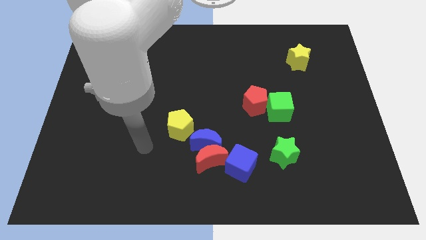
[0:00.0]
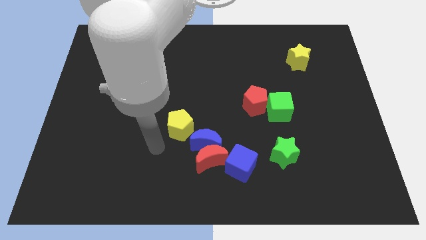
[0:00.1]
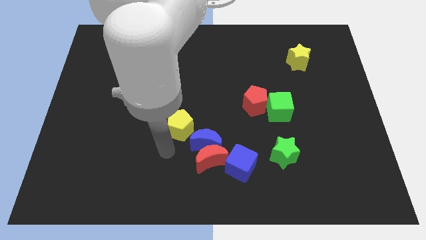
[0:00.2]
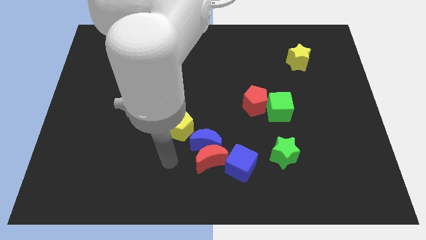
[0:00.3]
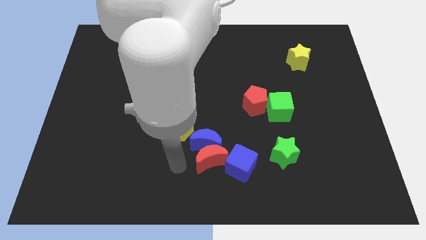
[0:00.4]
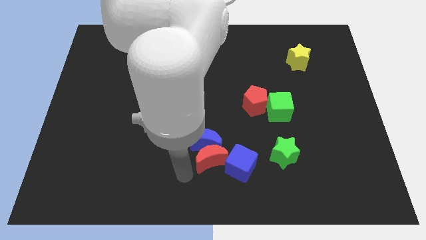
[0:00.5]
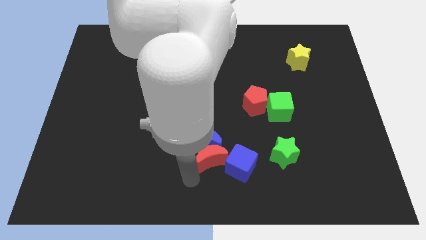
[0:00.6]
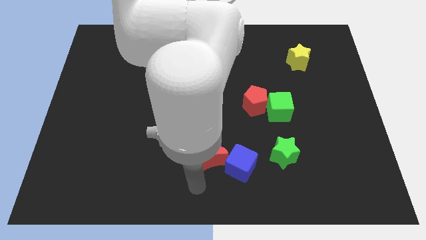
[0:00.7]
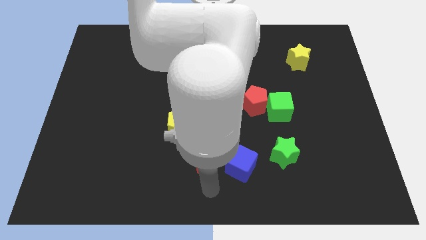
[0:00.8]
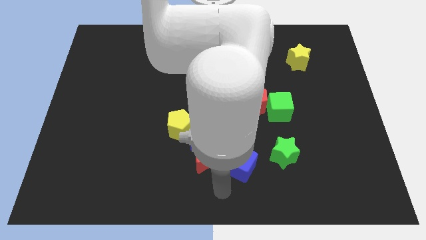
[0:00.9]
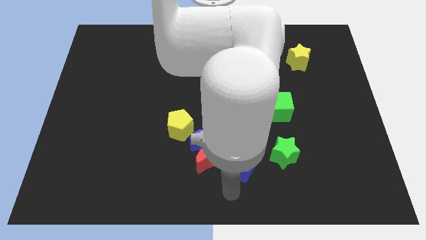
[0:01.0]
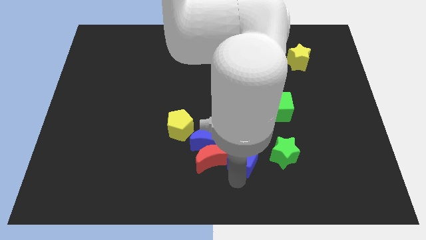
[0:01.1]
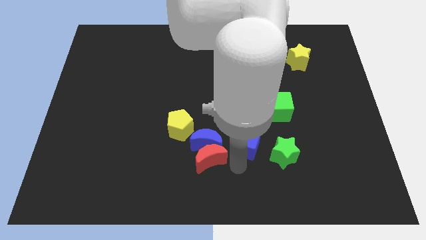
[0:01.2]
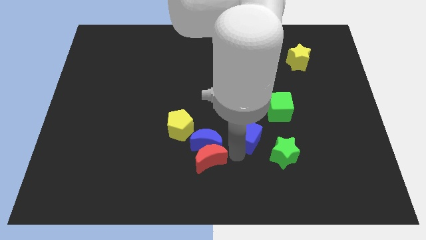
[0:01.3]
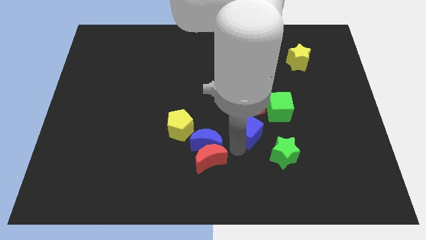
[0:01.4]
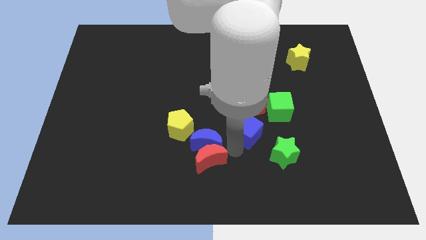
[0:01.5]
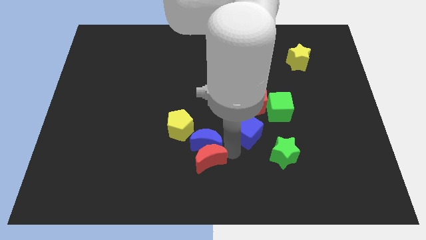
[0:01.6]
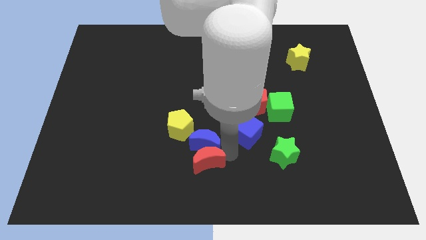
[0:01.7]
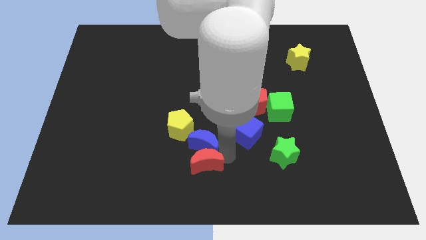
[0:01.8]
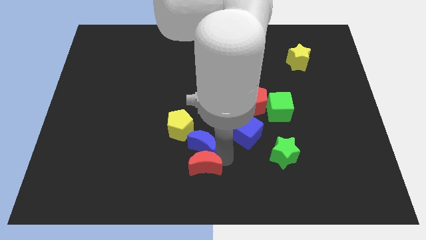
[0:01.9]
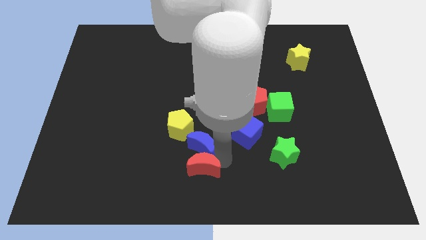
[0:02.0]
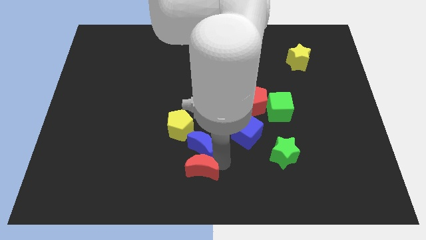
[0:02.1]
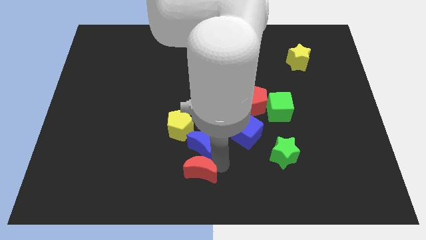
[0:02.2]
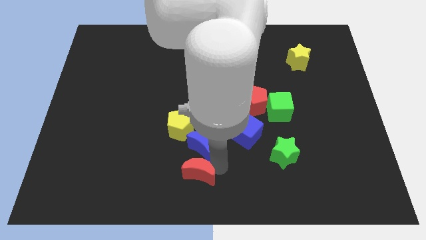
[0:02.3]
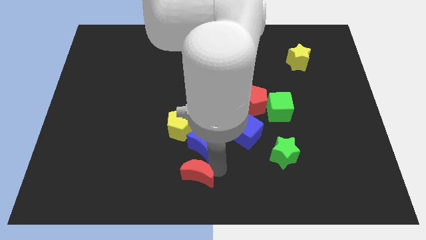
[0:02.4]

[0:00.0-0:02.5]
separate the red moon from the blue moon and blue cube

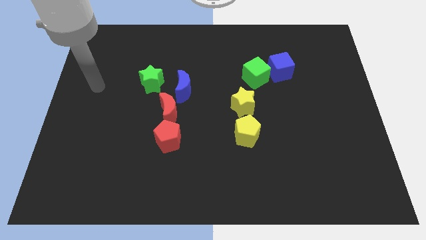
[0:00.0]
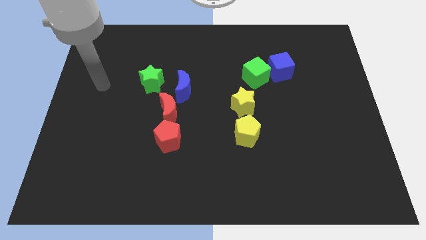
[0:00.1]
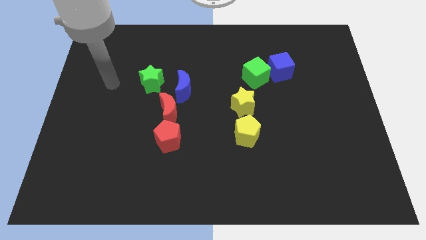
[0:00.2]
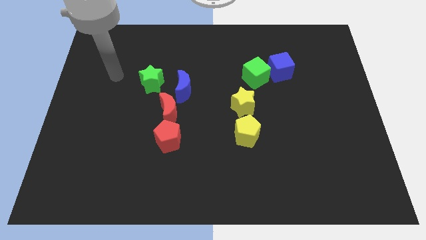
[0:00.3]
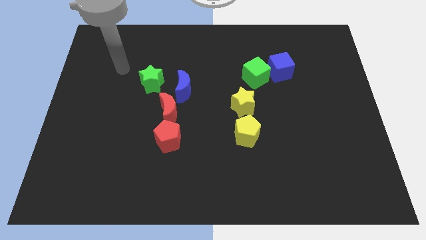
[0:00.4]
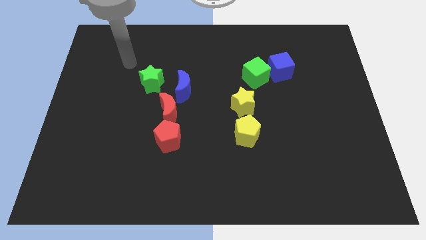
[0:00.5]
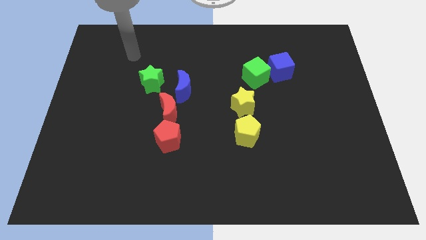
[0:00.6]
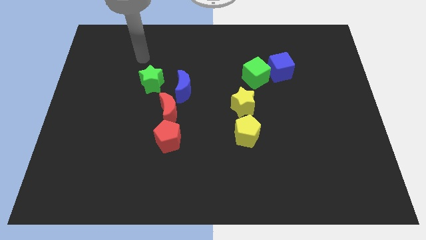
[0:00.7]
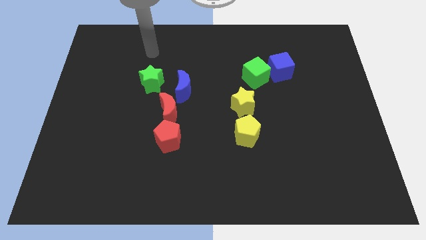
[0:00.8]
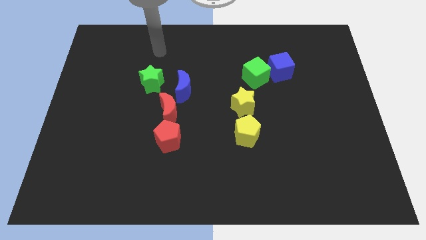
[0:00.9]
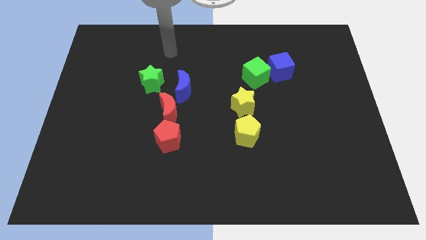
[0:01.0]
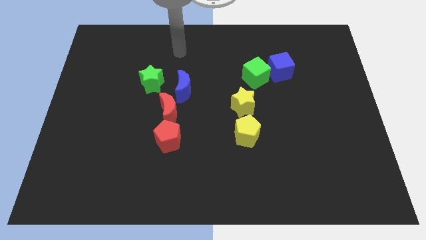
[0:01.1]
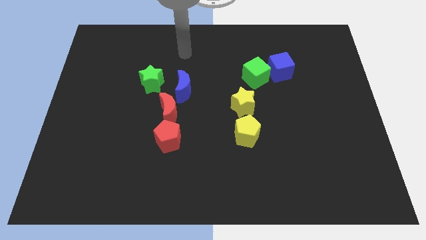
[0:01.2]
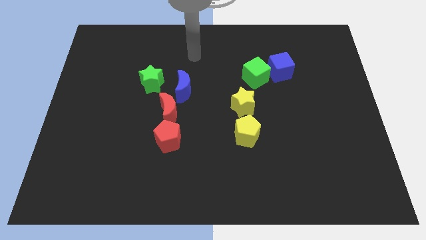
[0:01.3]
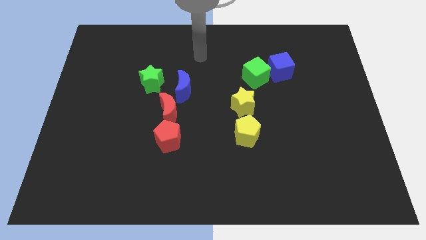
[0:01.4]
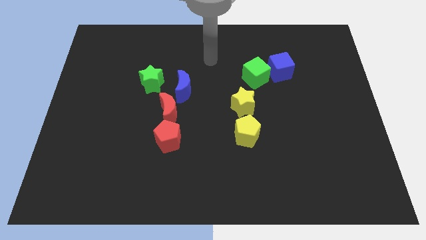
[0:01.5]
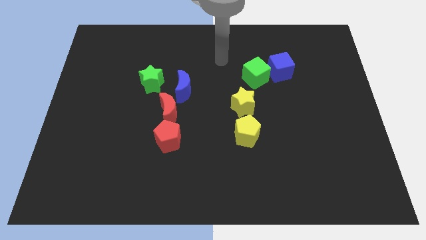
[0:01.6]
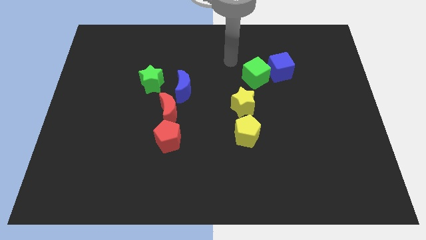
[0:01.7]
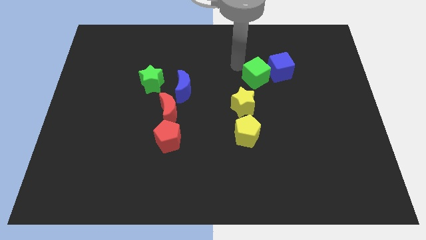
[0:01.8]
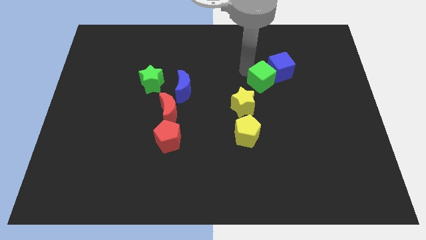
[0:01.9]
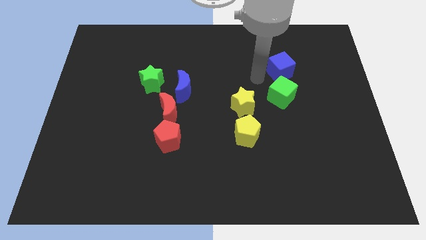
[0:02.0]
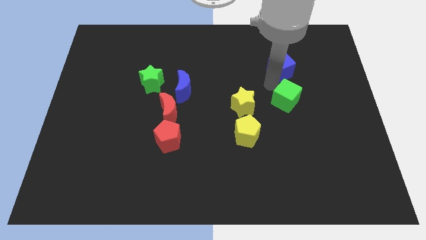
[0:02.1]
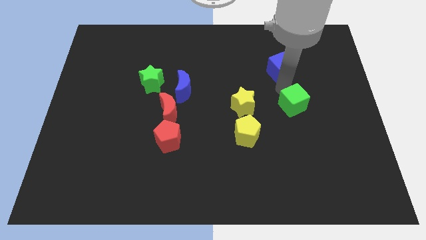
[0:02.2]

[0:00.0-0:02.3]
pull the blue cube apart from the green cube

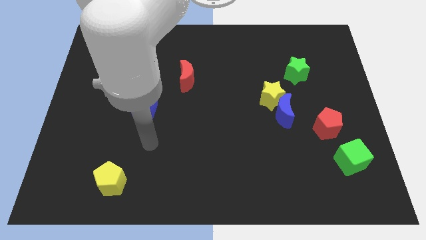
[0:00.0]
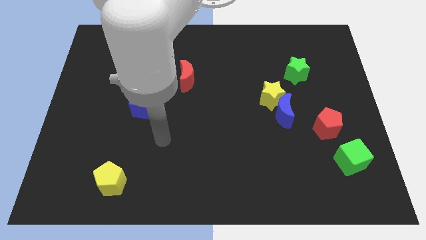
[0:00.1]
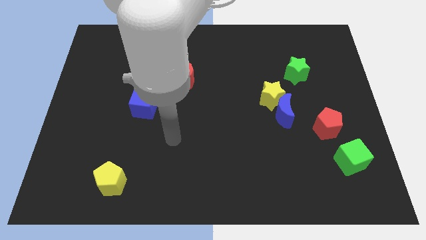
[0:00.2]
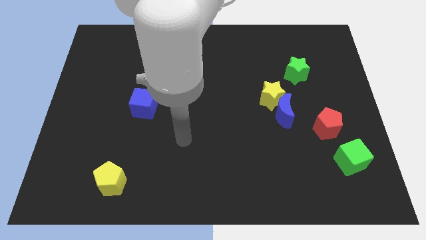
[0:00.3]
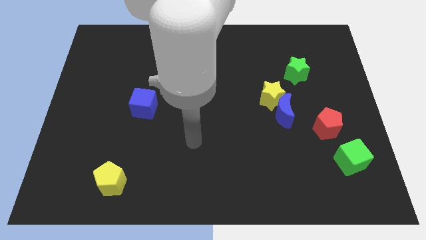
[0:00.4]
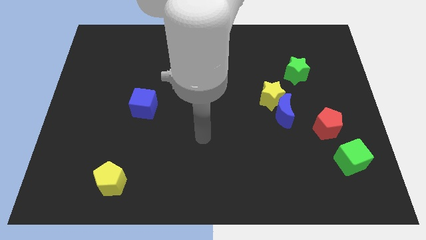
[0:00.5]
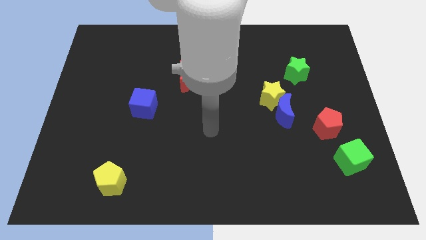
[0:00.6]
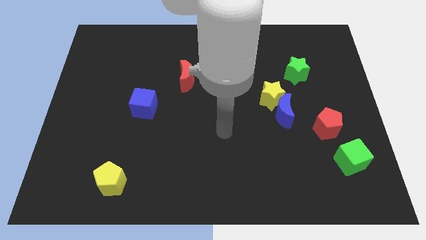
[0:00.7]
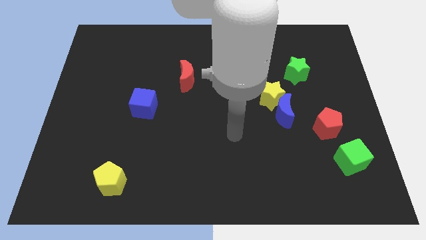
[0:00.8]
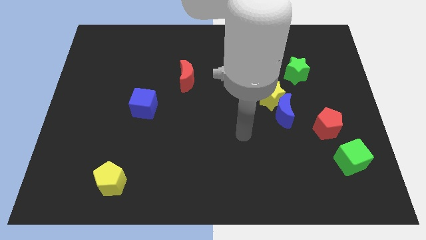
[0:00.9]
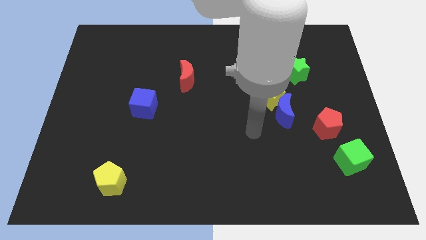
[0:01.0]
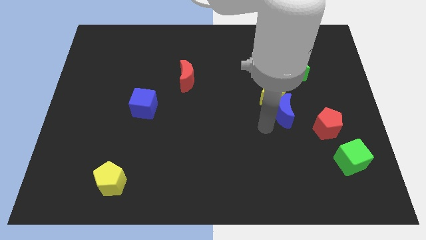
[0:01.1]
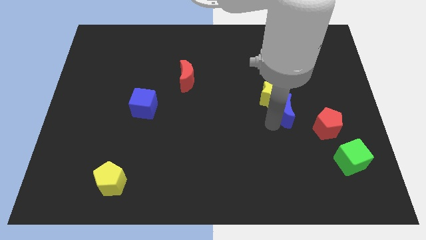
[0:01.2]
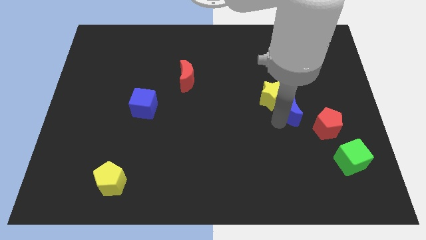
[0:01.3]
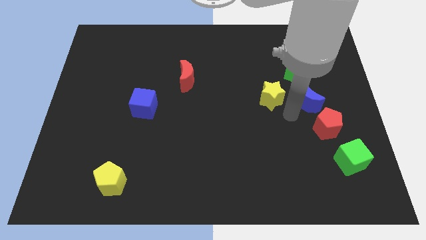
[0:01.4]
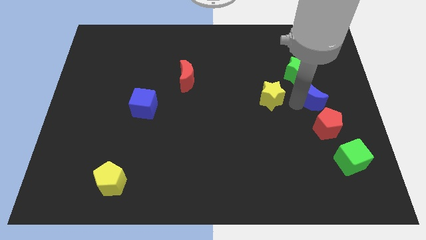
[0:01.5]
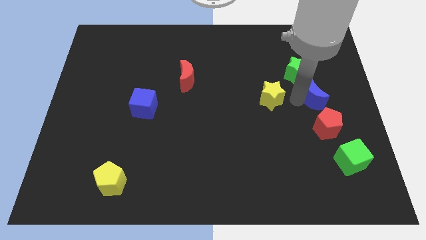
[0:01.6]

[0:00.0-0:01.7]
move the yellow star away from the blue moon

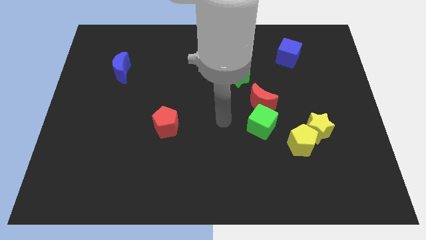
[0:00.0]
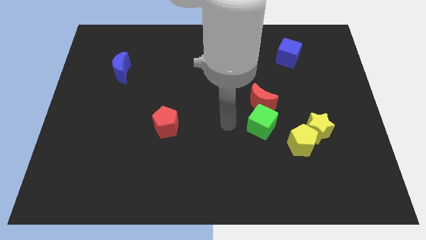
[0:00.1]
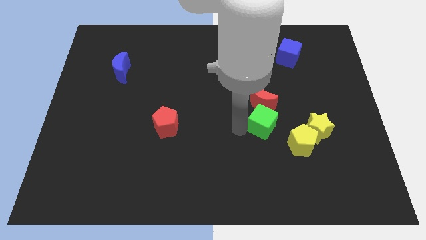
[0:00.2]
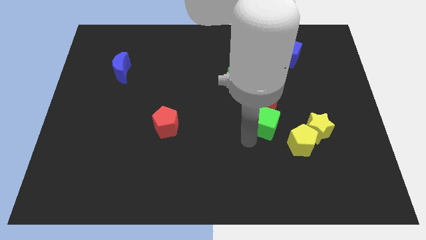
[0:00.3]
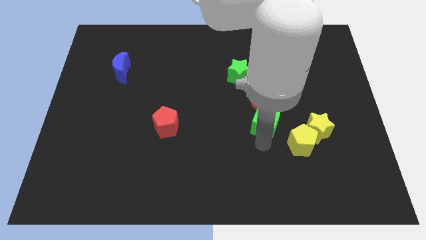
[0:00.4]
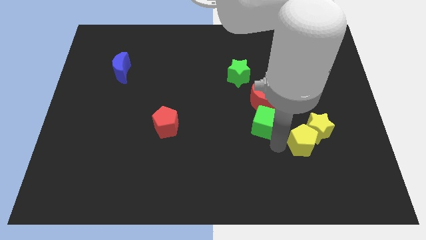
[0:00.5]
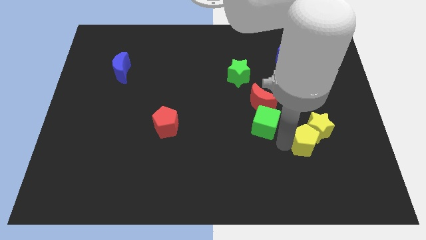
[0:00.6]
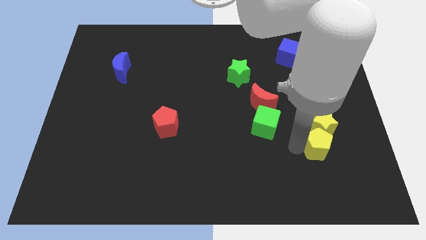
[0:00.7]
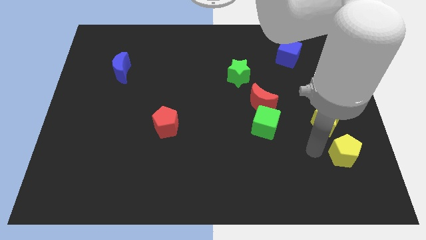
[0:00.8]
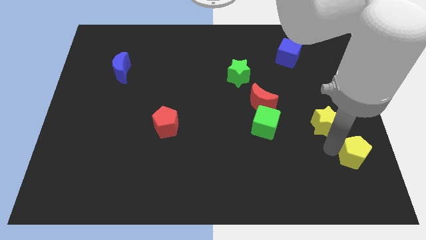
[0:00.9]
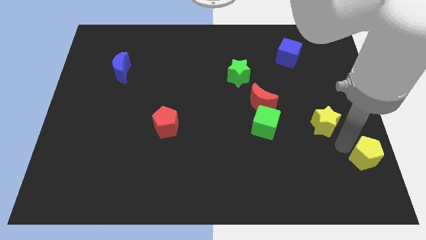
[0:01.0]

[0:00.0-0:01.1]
pull the yellow star apart from the yellow pentagon

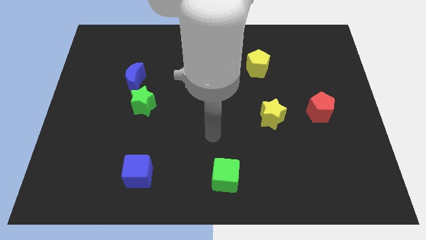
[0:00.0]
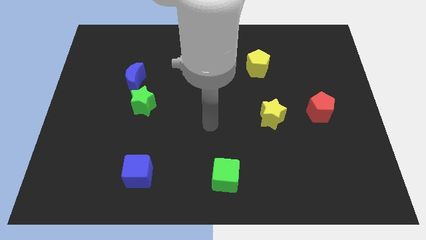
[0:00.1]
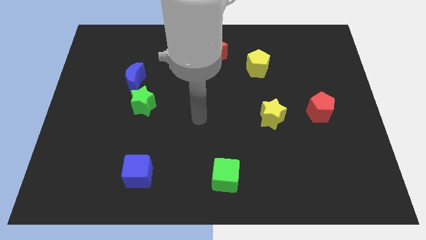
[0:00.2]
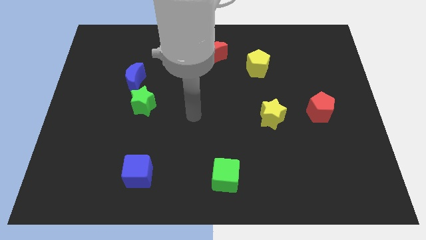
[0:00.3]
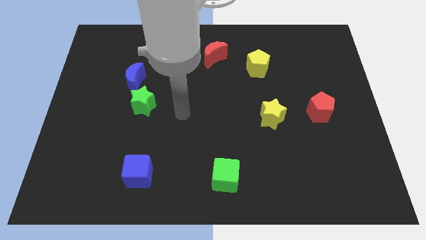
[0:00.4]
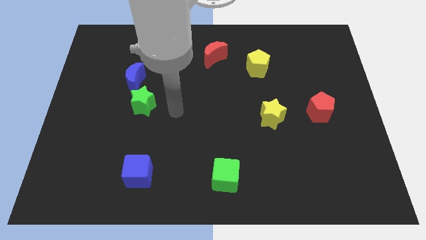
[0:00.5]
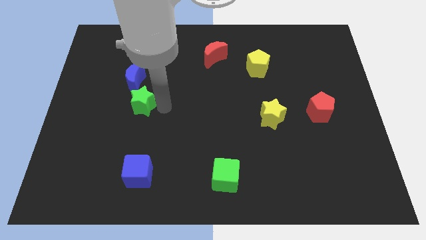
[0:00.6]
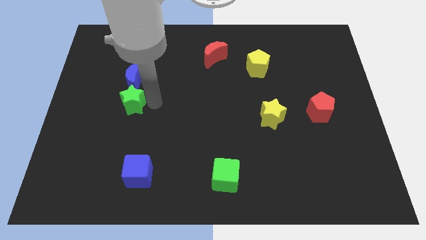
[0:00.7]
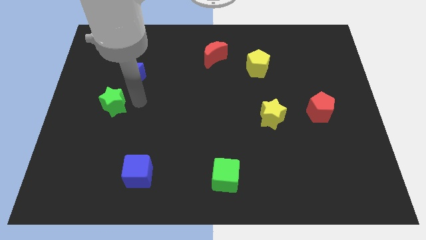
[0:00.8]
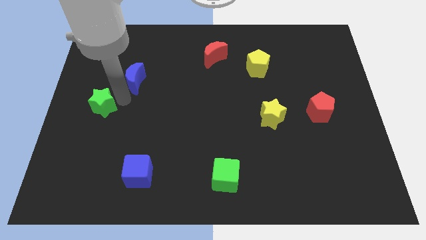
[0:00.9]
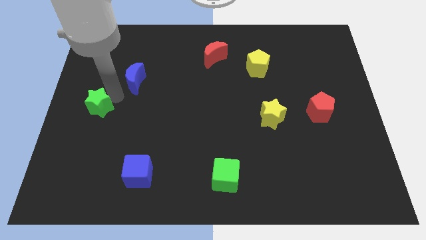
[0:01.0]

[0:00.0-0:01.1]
separate the blue moon from the green star

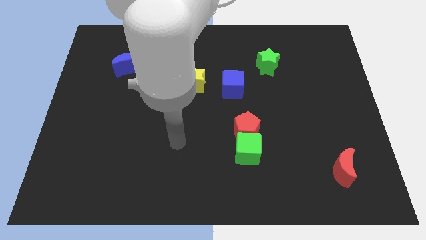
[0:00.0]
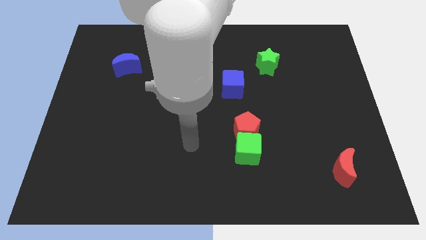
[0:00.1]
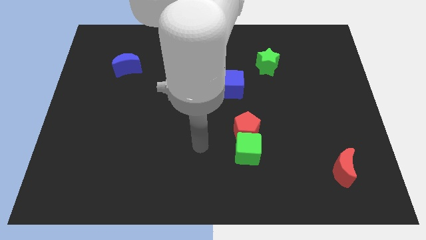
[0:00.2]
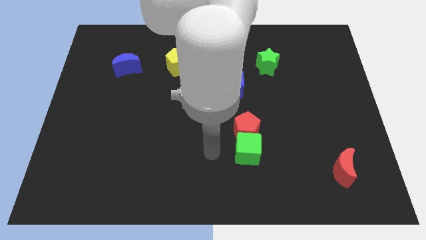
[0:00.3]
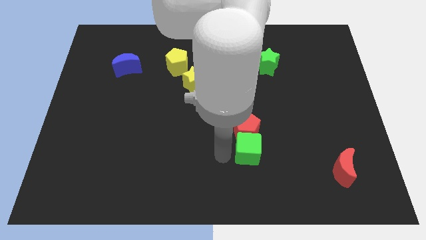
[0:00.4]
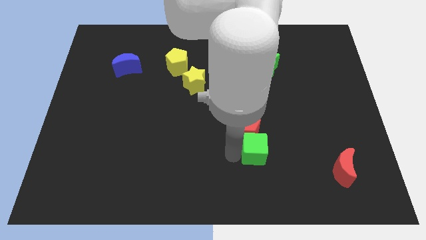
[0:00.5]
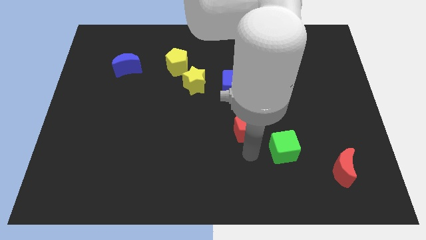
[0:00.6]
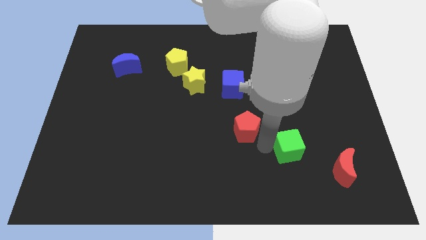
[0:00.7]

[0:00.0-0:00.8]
pull the red pentagon apart from the green cube
